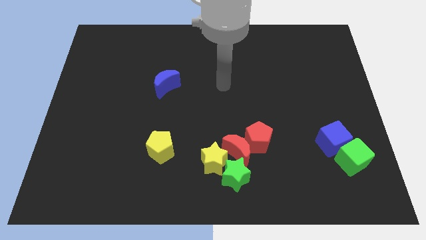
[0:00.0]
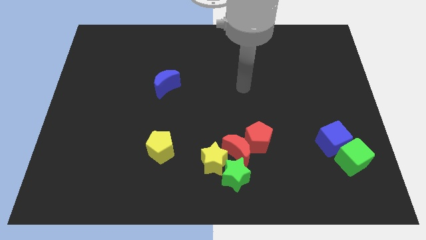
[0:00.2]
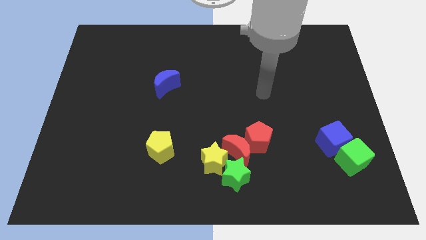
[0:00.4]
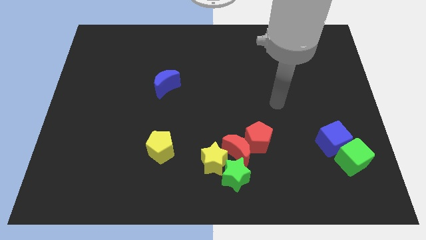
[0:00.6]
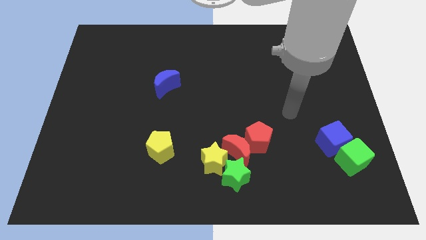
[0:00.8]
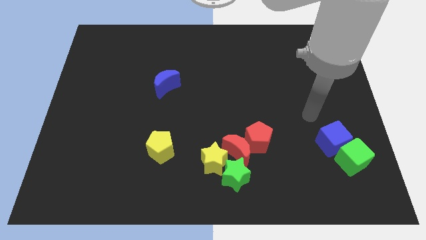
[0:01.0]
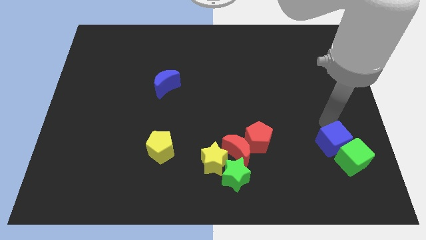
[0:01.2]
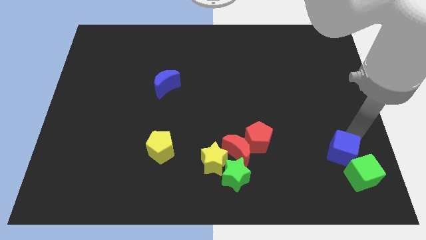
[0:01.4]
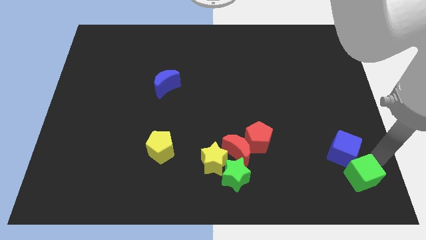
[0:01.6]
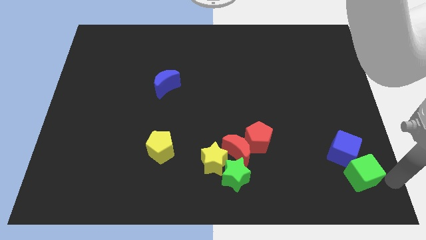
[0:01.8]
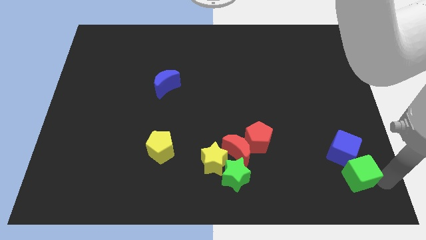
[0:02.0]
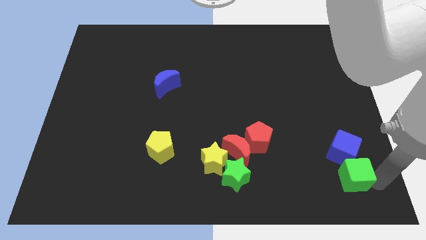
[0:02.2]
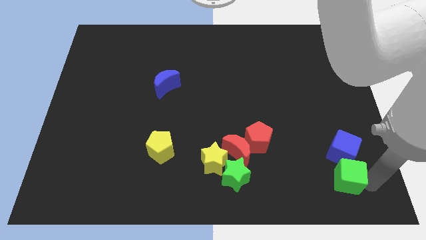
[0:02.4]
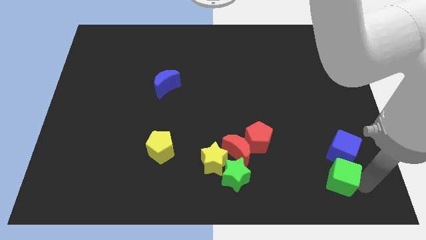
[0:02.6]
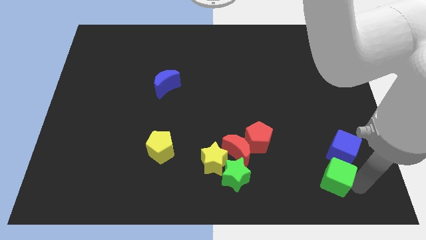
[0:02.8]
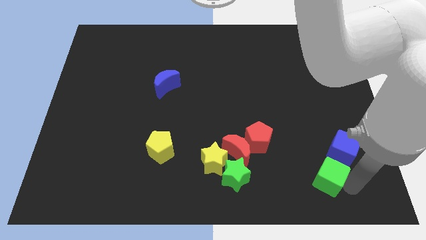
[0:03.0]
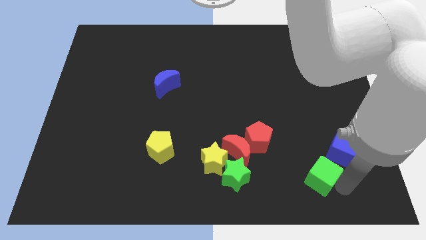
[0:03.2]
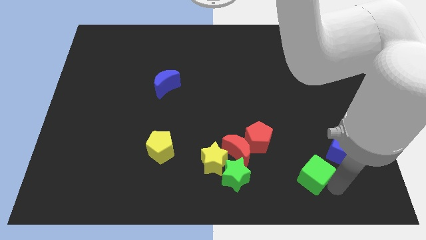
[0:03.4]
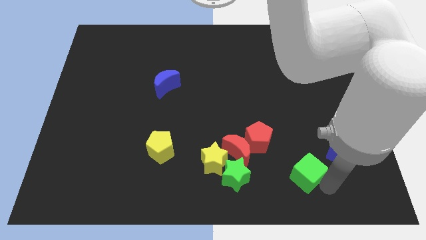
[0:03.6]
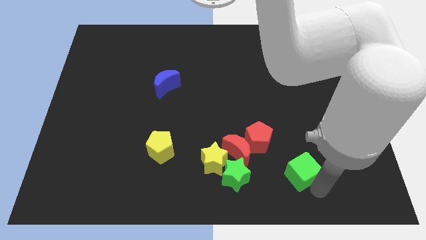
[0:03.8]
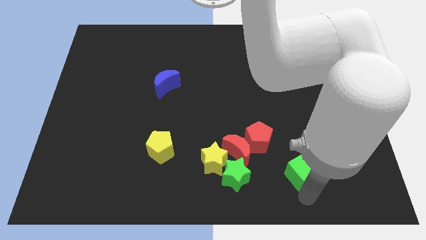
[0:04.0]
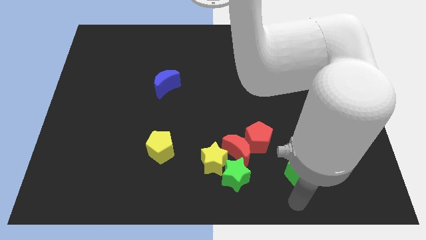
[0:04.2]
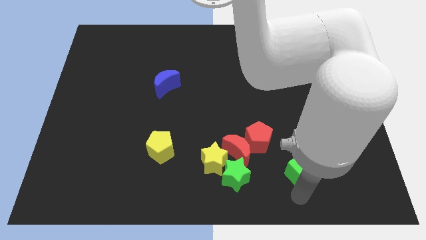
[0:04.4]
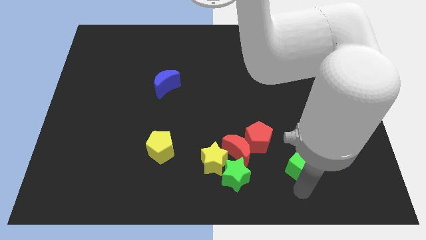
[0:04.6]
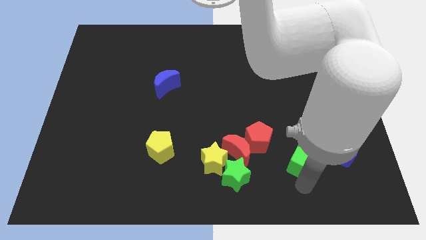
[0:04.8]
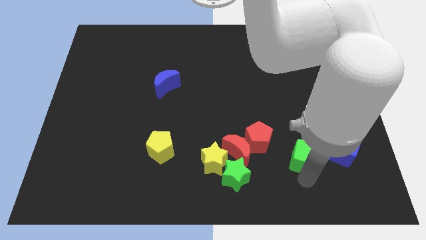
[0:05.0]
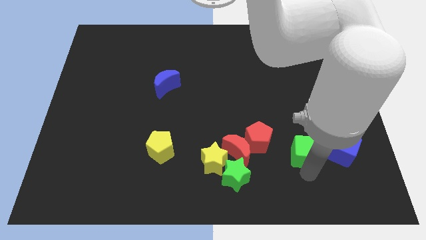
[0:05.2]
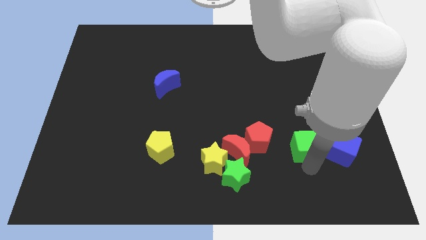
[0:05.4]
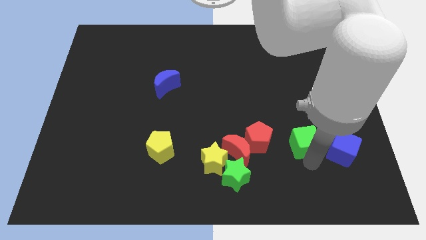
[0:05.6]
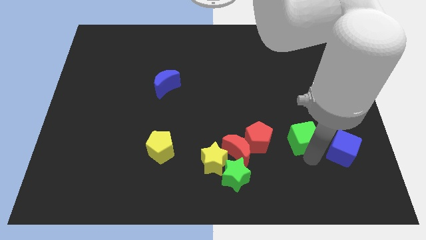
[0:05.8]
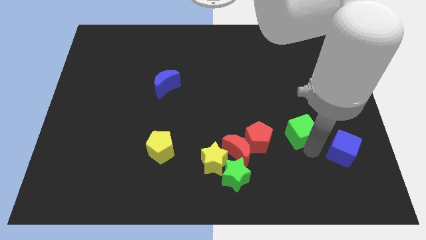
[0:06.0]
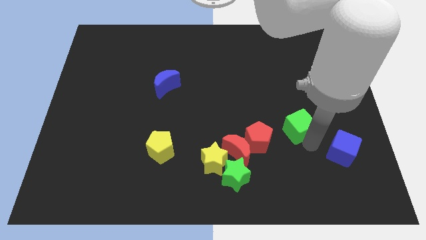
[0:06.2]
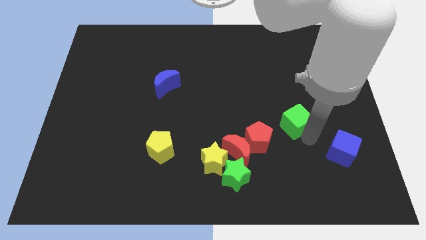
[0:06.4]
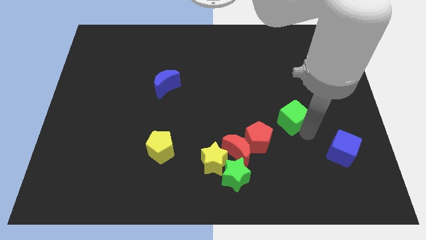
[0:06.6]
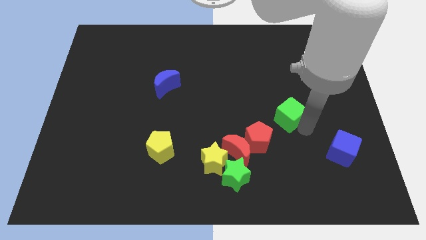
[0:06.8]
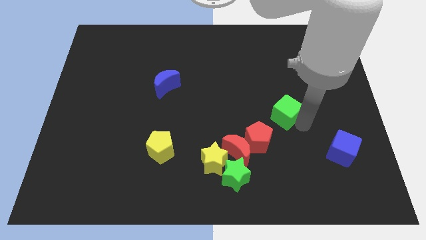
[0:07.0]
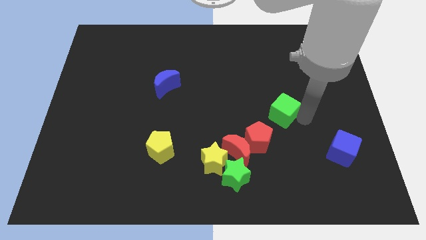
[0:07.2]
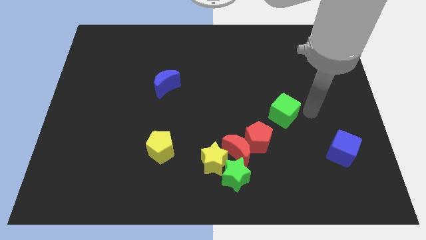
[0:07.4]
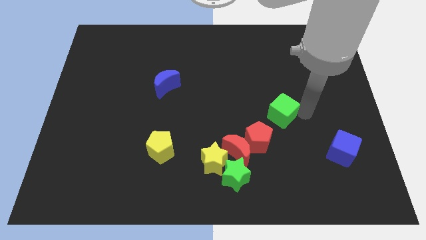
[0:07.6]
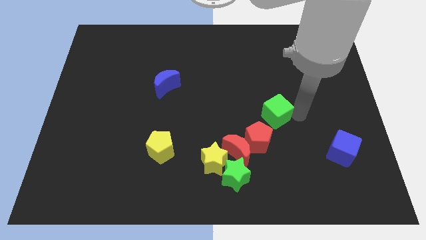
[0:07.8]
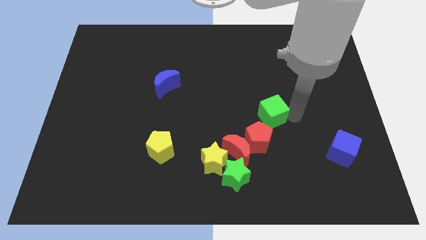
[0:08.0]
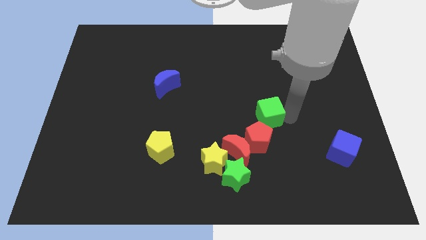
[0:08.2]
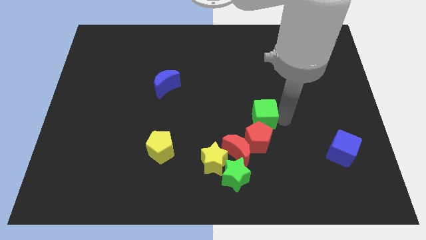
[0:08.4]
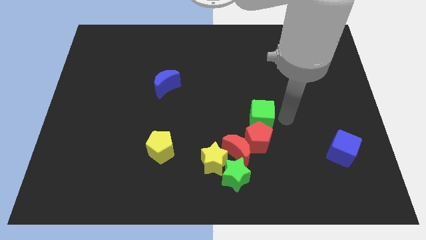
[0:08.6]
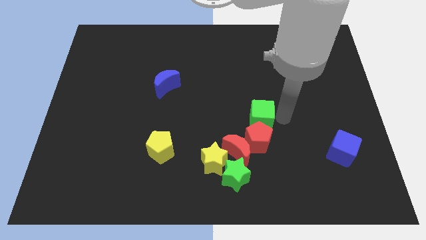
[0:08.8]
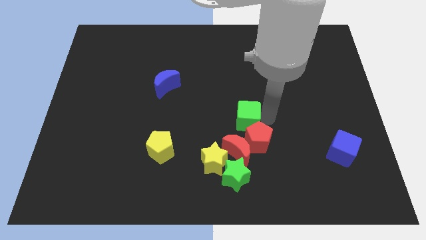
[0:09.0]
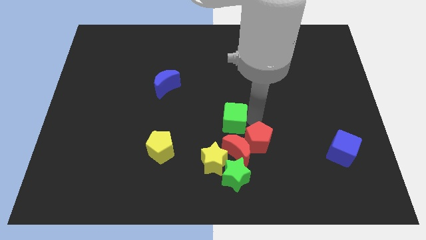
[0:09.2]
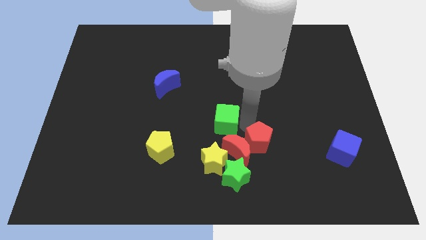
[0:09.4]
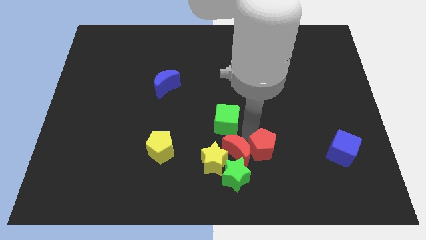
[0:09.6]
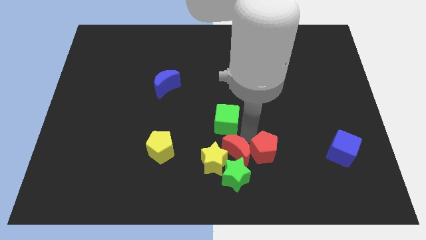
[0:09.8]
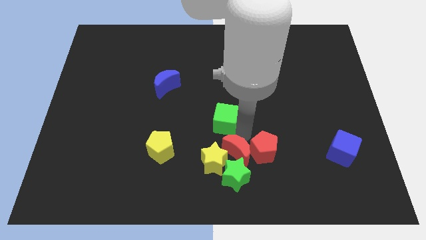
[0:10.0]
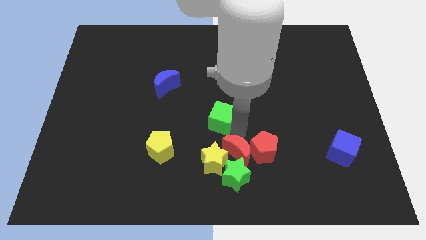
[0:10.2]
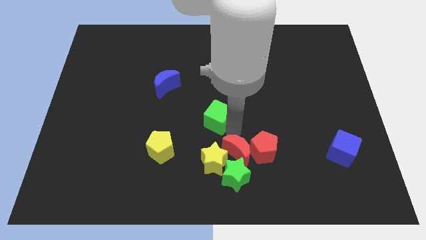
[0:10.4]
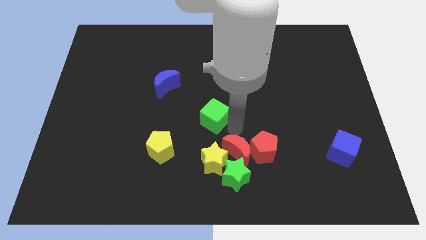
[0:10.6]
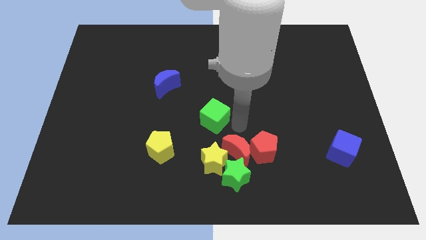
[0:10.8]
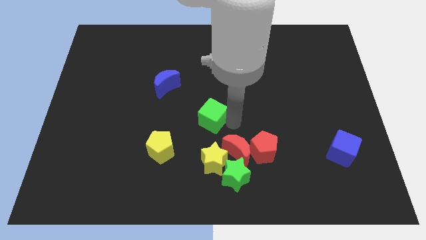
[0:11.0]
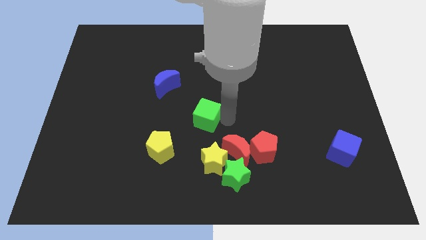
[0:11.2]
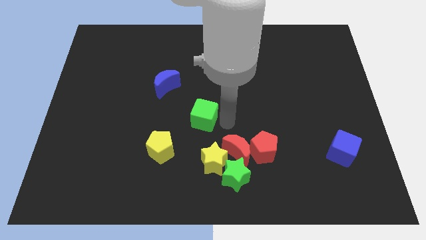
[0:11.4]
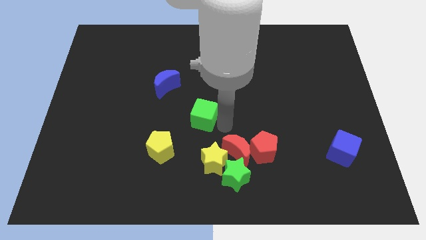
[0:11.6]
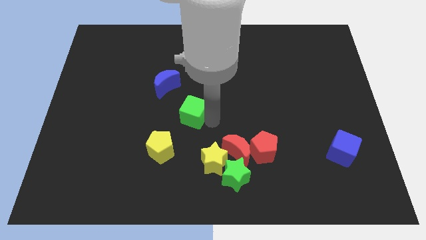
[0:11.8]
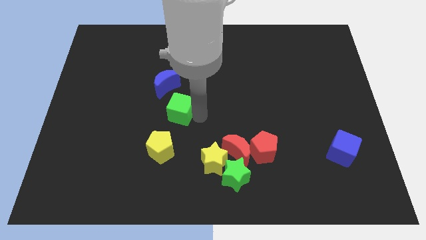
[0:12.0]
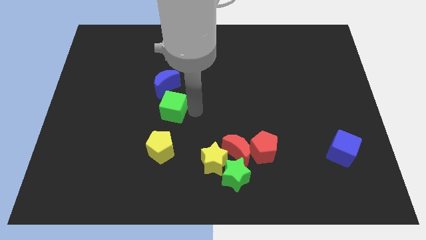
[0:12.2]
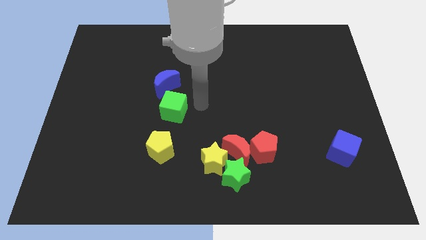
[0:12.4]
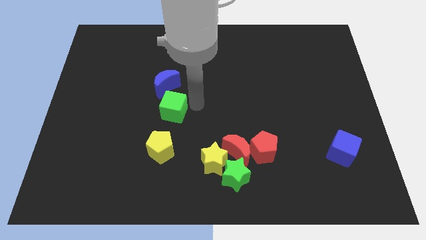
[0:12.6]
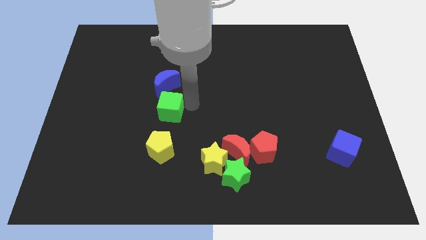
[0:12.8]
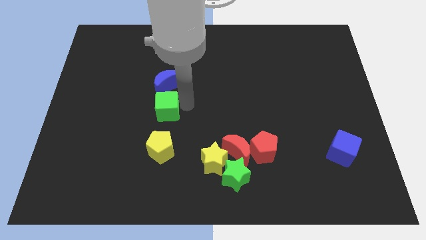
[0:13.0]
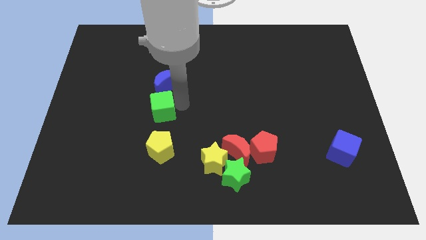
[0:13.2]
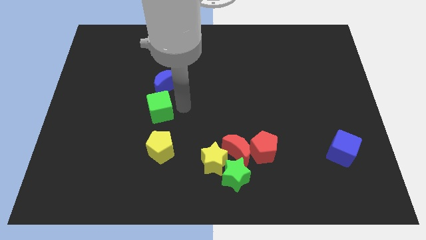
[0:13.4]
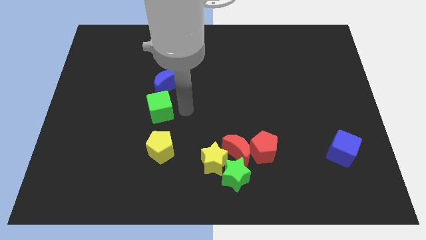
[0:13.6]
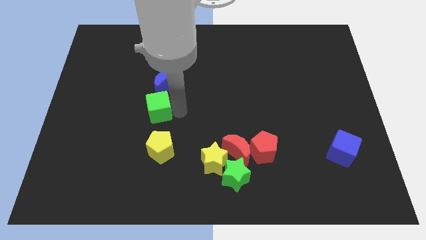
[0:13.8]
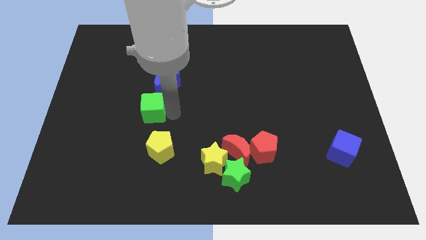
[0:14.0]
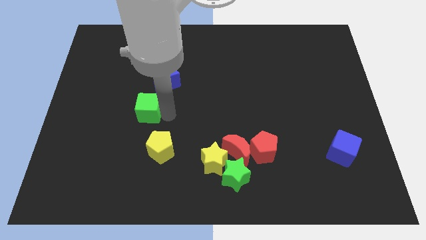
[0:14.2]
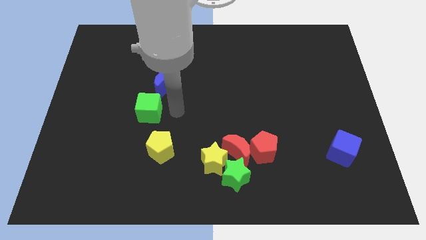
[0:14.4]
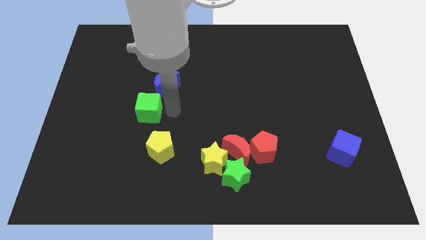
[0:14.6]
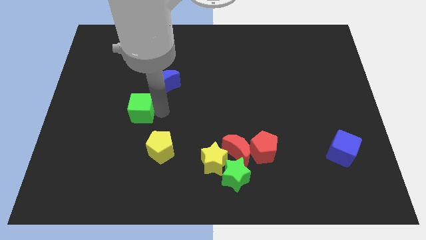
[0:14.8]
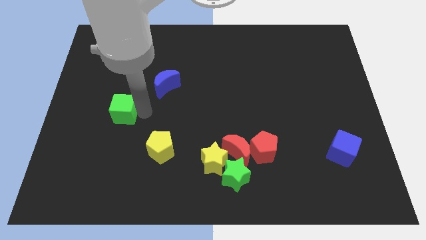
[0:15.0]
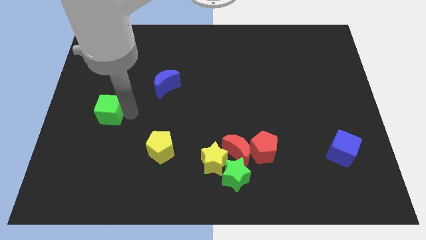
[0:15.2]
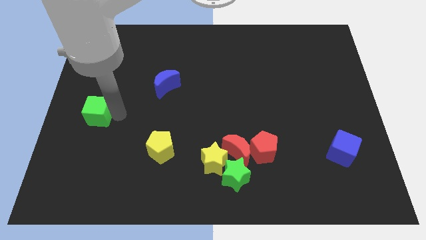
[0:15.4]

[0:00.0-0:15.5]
push the green cube to the center left

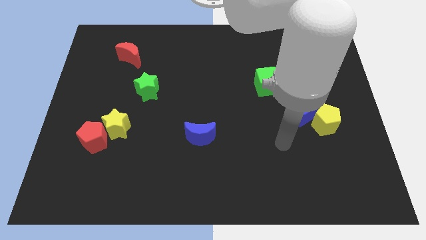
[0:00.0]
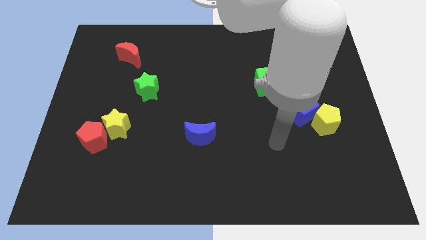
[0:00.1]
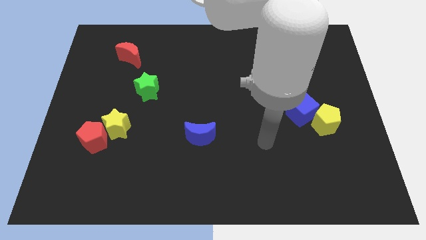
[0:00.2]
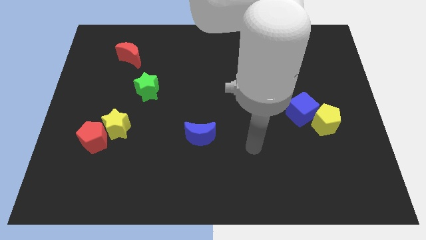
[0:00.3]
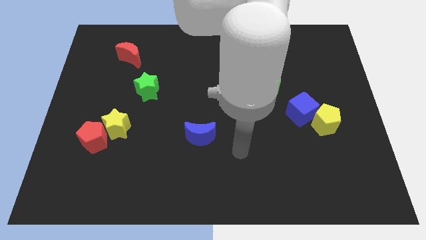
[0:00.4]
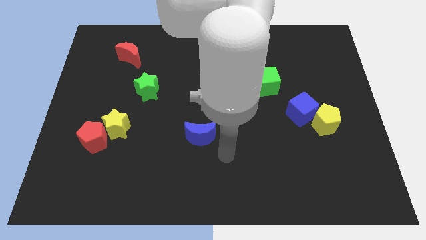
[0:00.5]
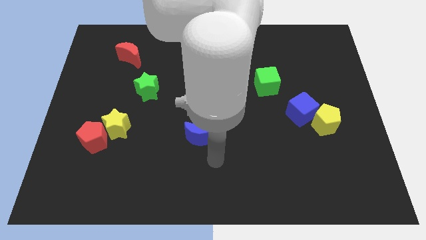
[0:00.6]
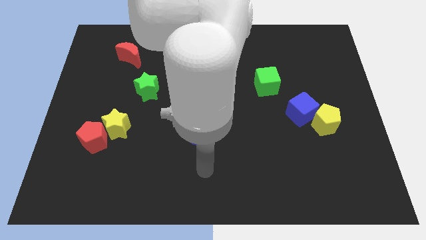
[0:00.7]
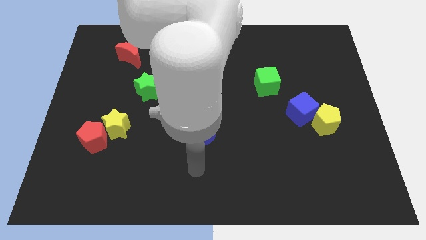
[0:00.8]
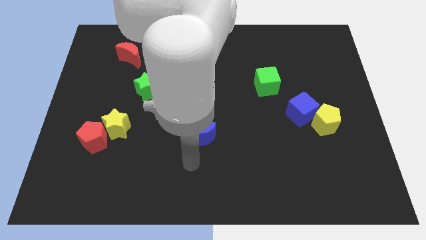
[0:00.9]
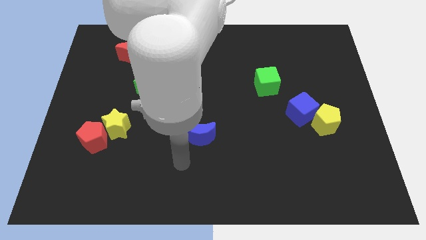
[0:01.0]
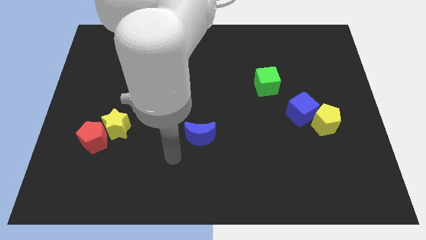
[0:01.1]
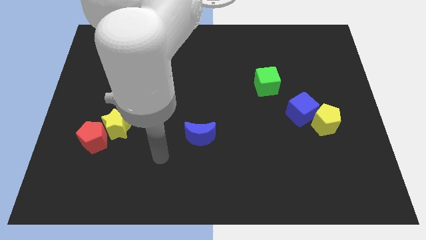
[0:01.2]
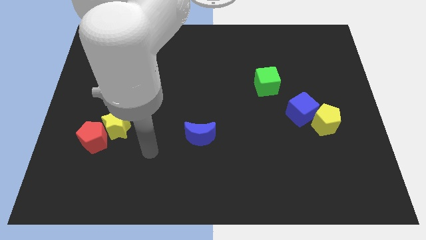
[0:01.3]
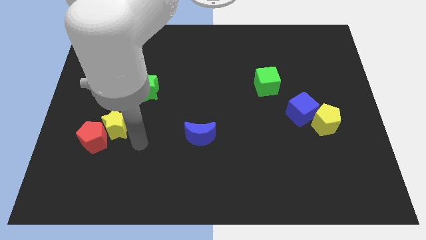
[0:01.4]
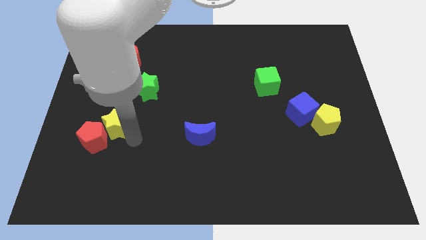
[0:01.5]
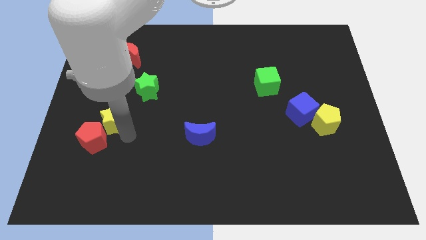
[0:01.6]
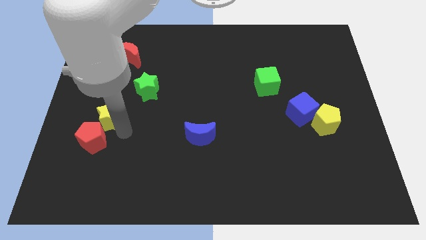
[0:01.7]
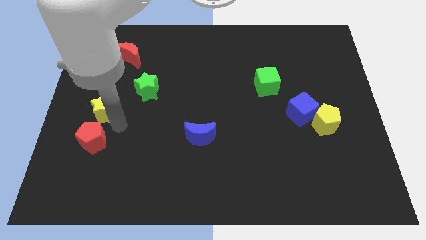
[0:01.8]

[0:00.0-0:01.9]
move the yellow star to the left side of the board
